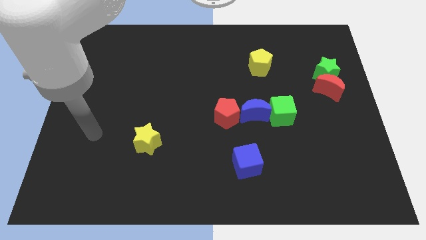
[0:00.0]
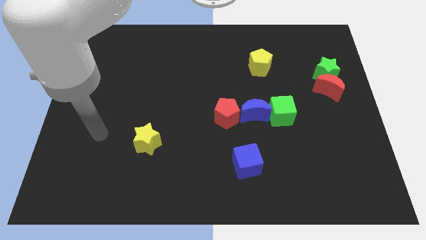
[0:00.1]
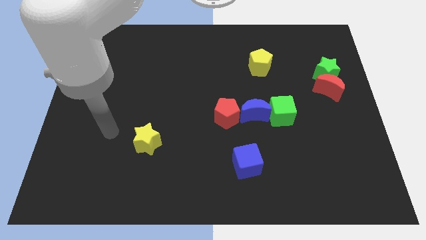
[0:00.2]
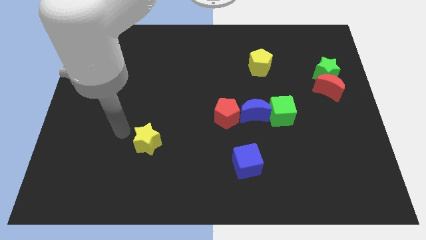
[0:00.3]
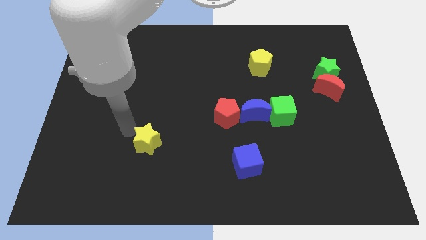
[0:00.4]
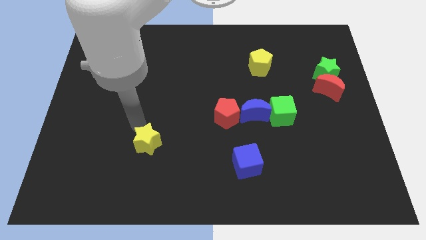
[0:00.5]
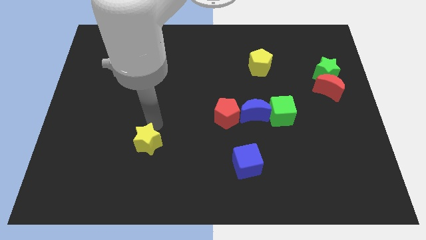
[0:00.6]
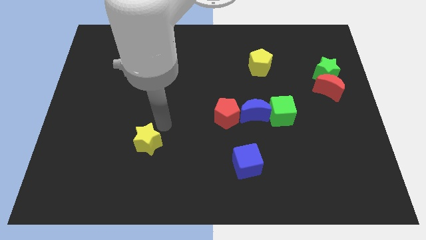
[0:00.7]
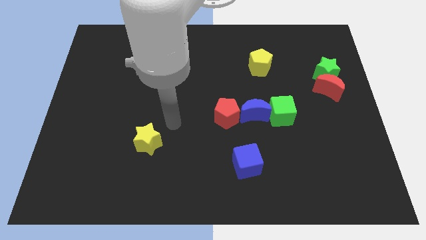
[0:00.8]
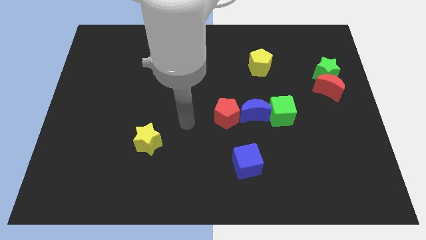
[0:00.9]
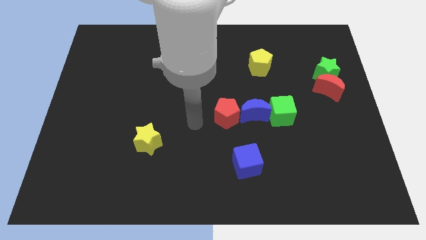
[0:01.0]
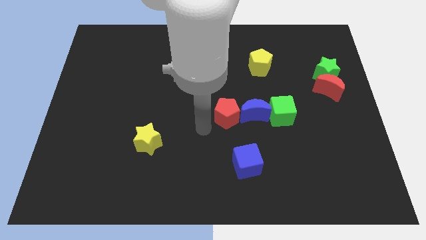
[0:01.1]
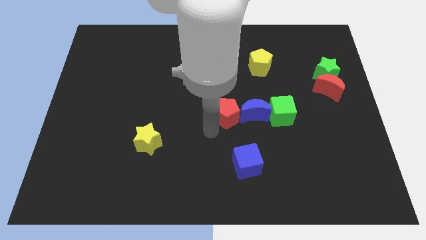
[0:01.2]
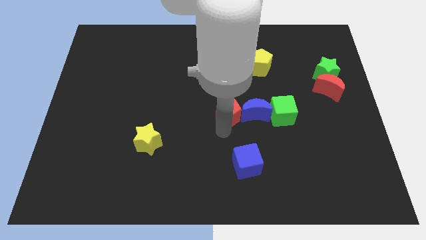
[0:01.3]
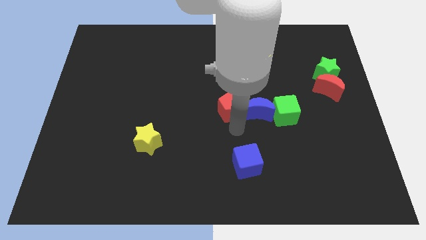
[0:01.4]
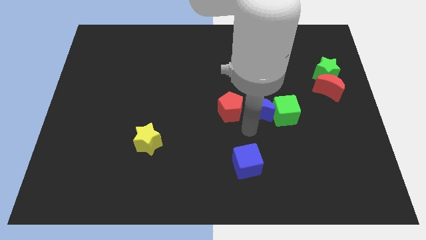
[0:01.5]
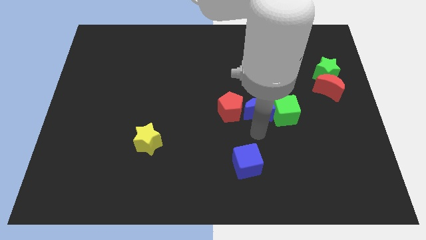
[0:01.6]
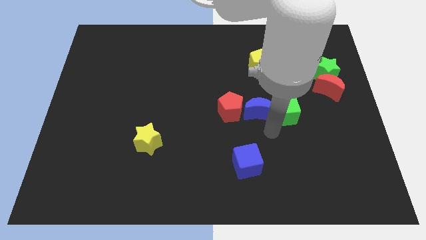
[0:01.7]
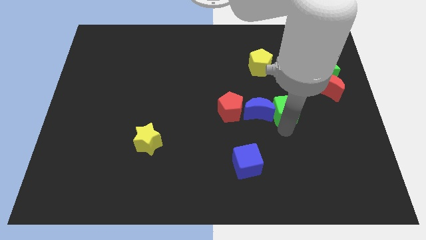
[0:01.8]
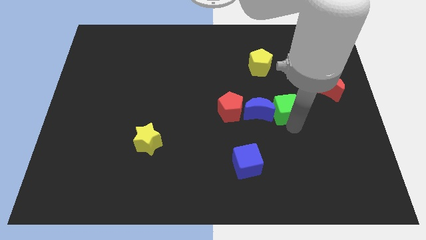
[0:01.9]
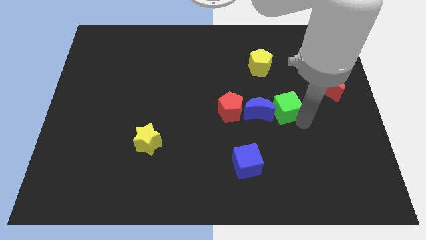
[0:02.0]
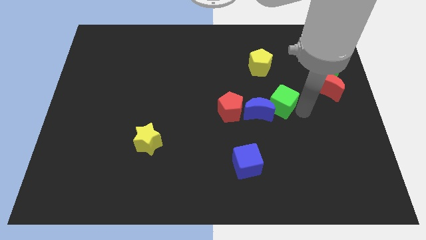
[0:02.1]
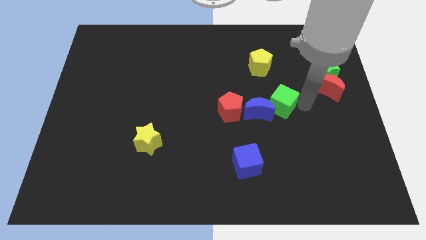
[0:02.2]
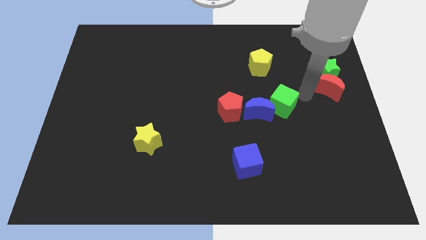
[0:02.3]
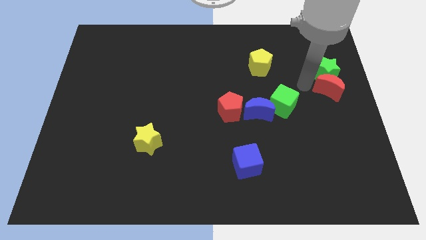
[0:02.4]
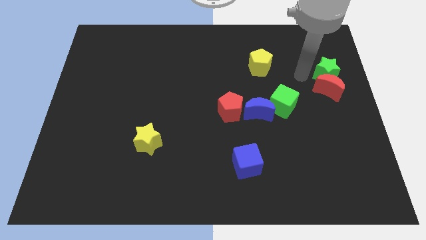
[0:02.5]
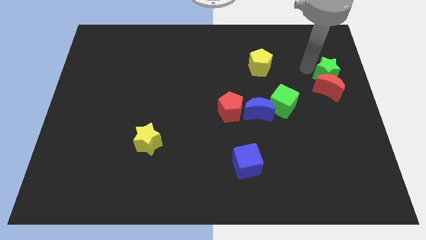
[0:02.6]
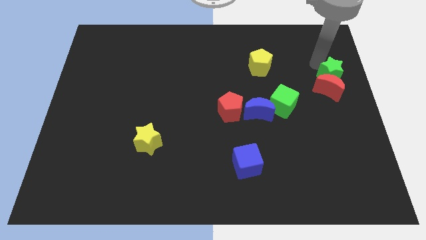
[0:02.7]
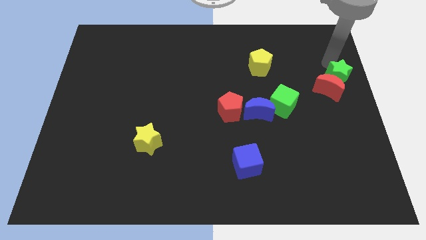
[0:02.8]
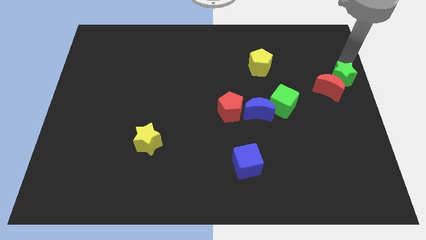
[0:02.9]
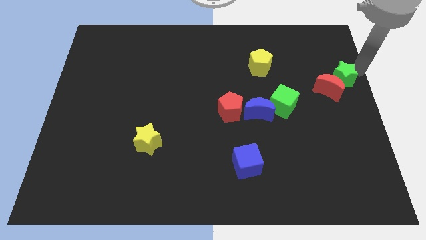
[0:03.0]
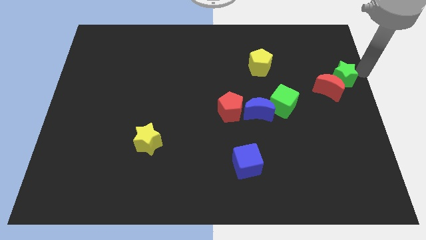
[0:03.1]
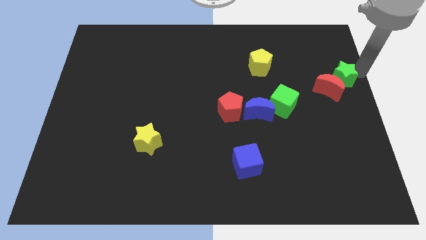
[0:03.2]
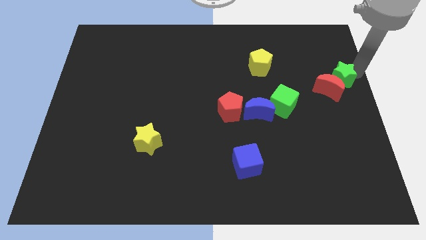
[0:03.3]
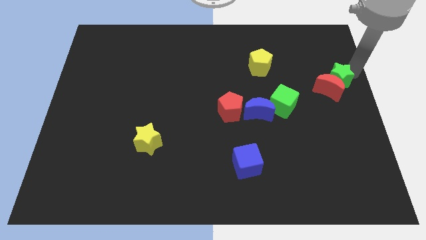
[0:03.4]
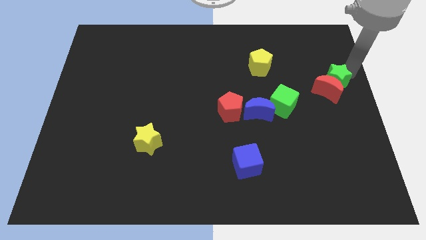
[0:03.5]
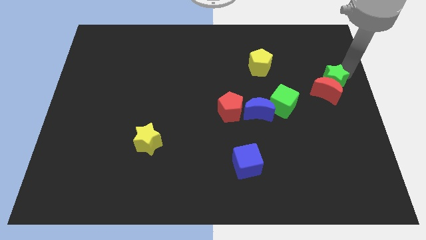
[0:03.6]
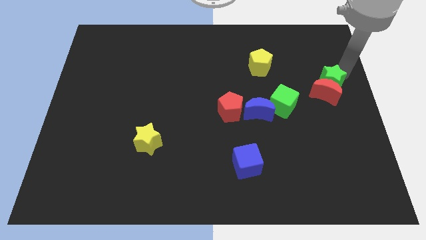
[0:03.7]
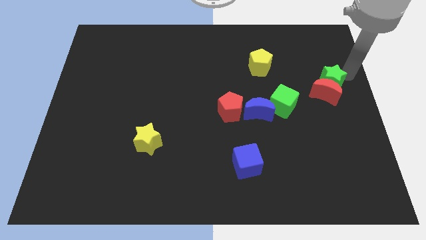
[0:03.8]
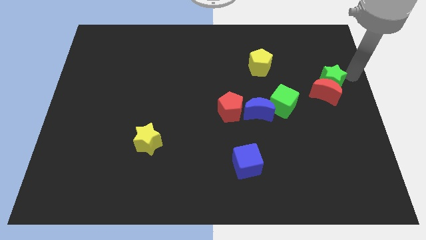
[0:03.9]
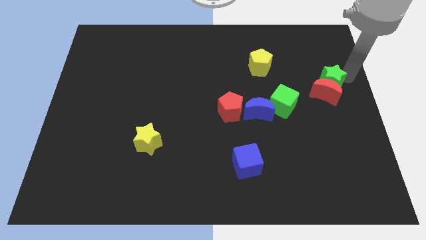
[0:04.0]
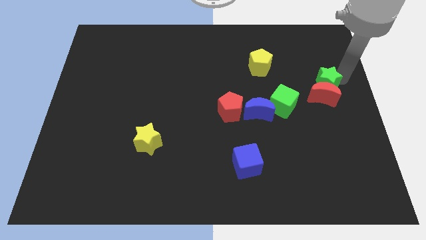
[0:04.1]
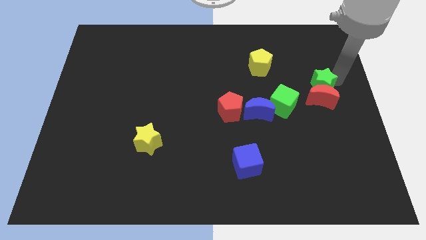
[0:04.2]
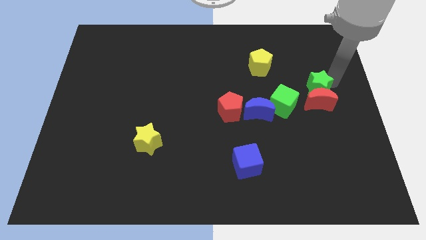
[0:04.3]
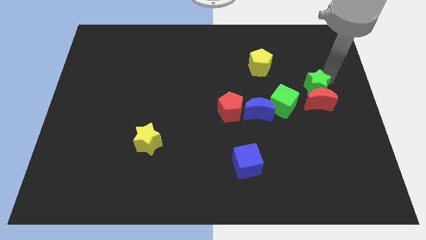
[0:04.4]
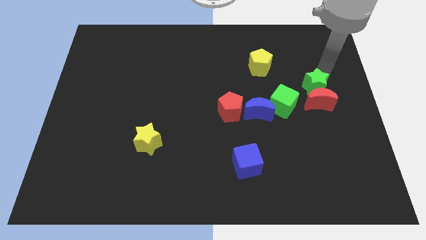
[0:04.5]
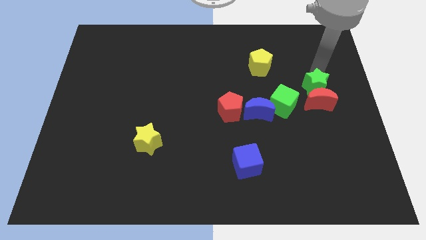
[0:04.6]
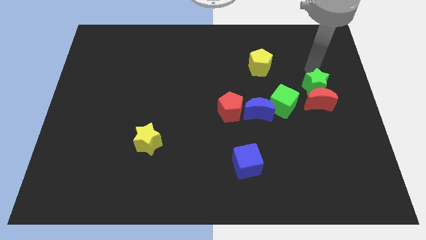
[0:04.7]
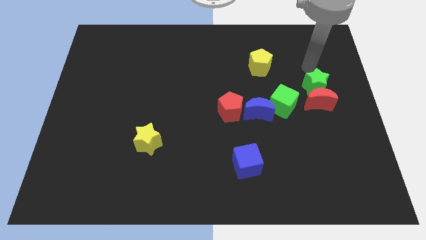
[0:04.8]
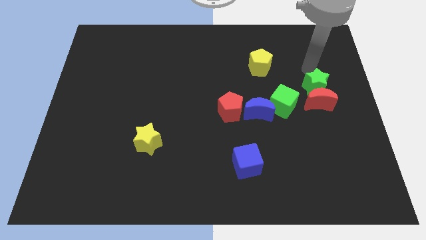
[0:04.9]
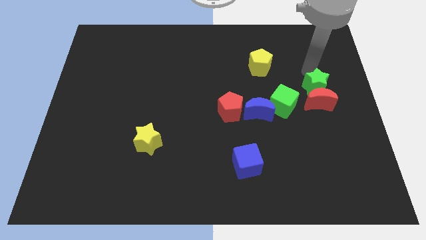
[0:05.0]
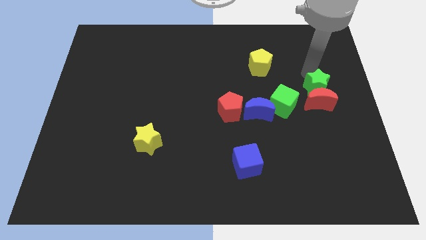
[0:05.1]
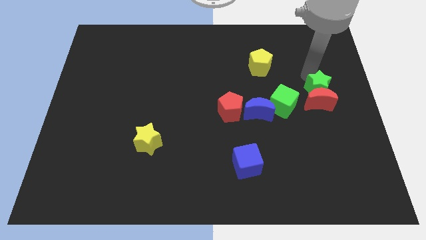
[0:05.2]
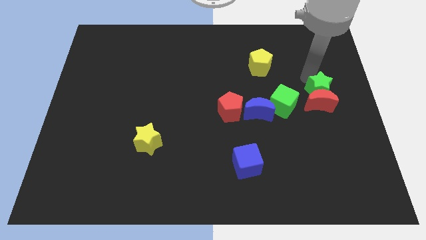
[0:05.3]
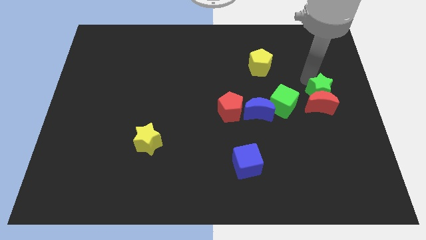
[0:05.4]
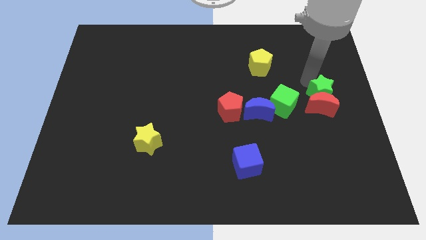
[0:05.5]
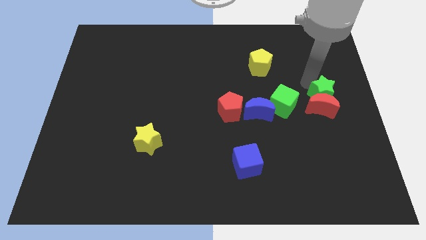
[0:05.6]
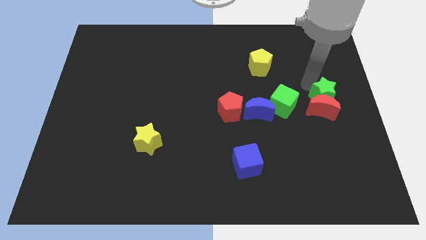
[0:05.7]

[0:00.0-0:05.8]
slide the green star downwards a little bit

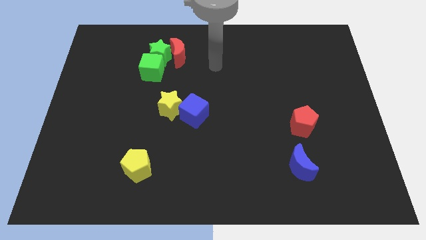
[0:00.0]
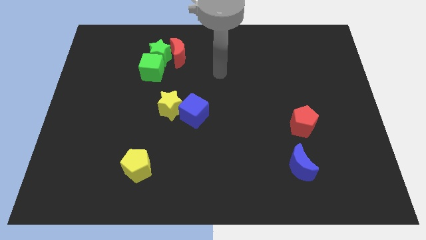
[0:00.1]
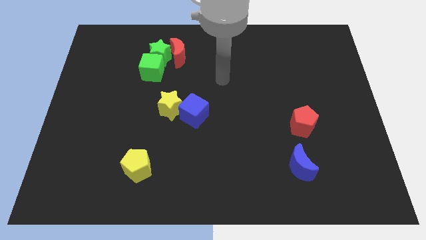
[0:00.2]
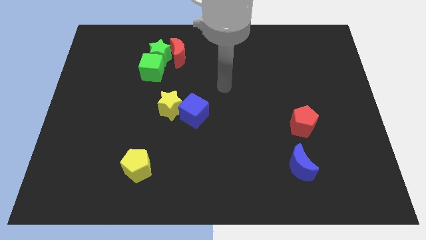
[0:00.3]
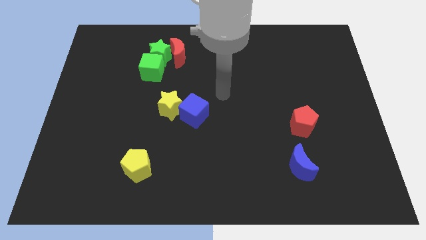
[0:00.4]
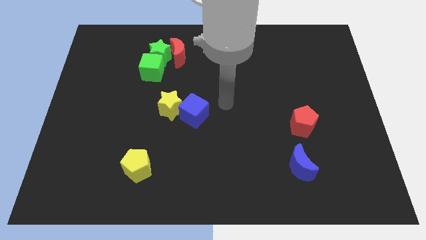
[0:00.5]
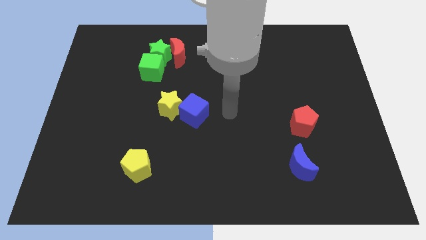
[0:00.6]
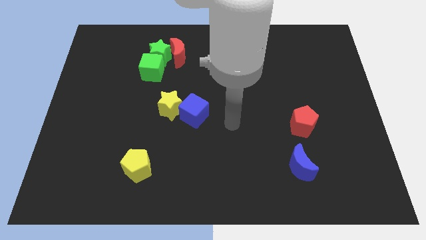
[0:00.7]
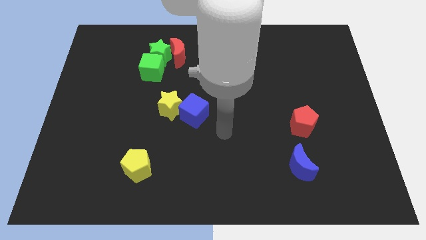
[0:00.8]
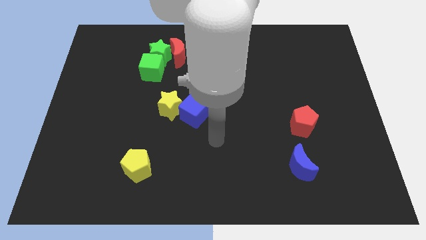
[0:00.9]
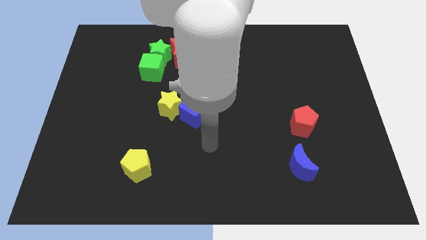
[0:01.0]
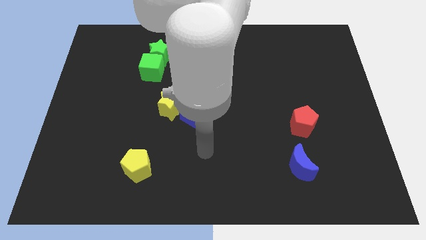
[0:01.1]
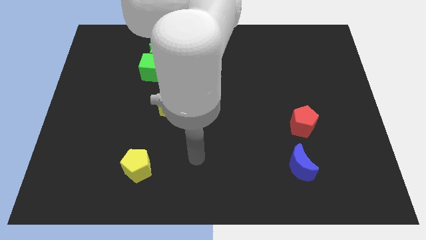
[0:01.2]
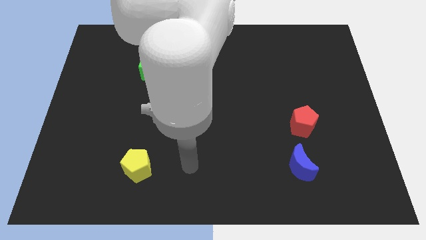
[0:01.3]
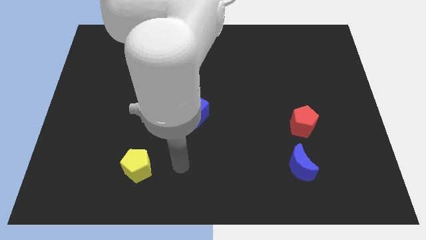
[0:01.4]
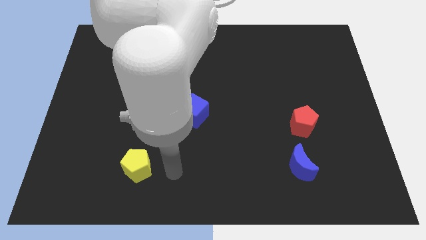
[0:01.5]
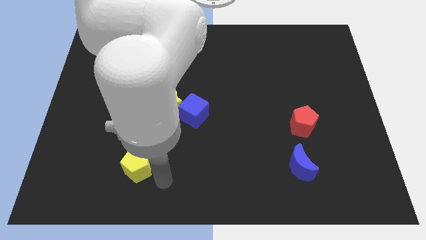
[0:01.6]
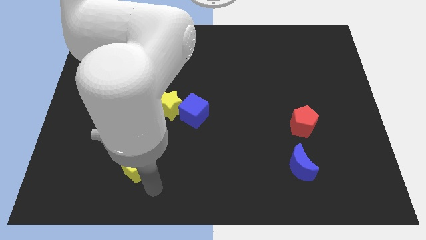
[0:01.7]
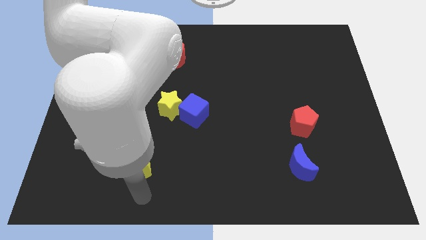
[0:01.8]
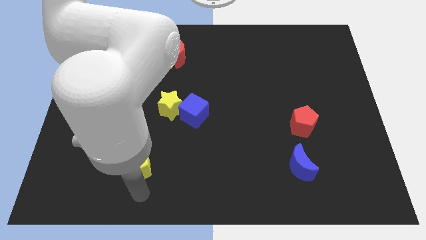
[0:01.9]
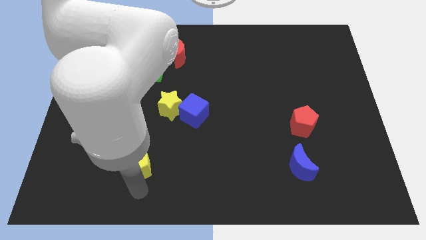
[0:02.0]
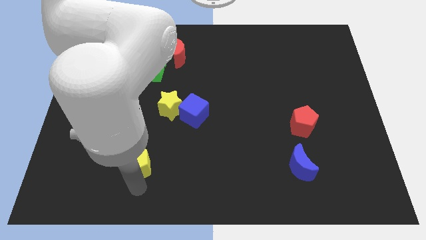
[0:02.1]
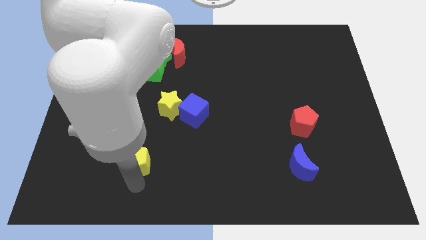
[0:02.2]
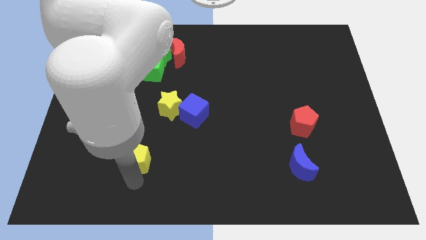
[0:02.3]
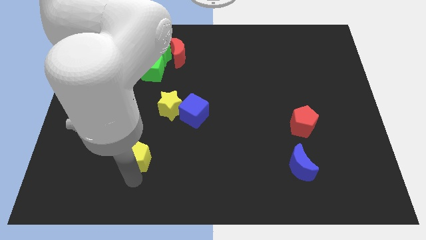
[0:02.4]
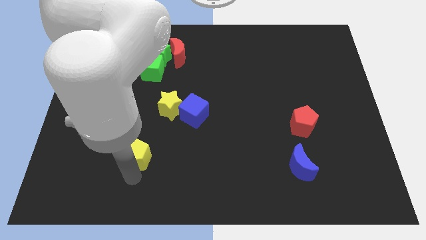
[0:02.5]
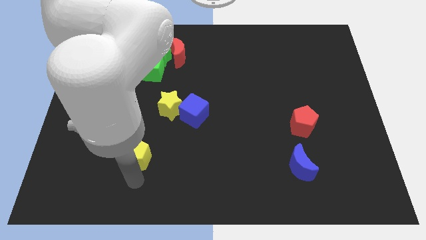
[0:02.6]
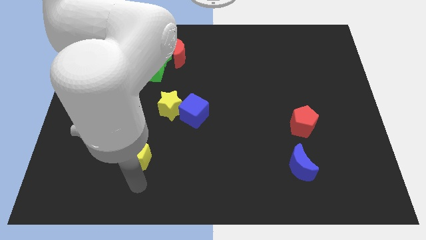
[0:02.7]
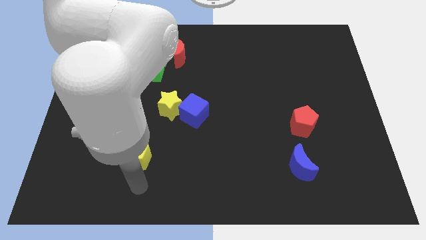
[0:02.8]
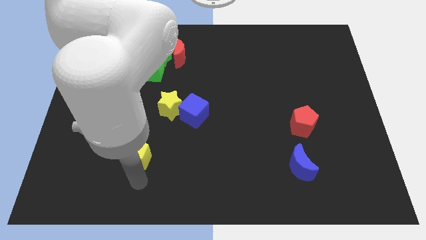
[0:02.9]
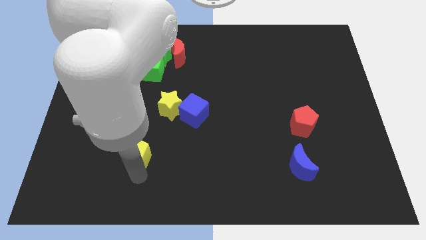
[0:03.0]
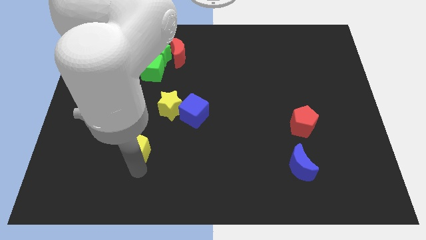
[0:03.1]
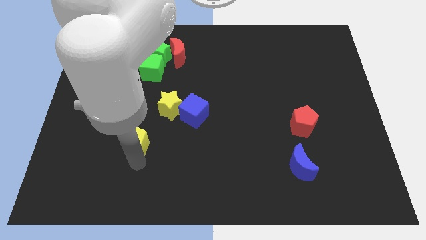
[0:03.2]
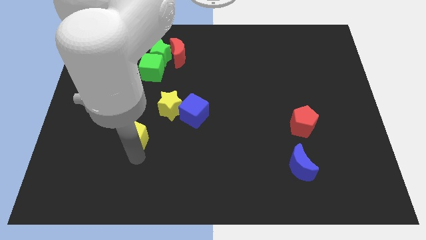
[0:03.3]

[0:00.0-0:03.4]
push the yellow pentagon a bit up
